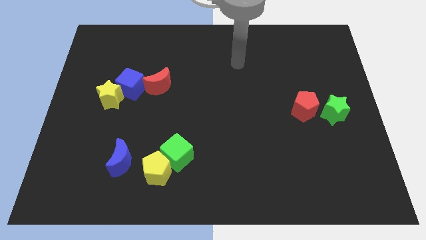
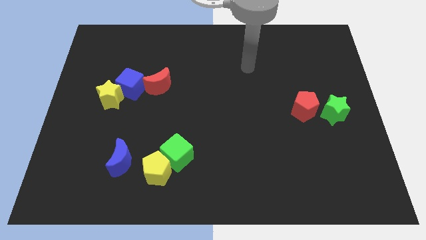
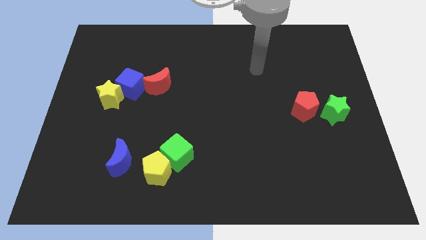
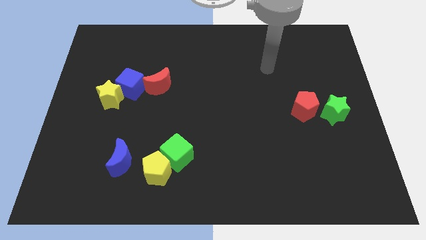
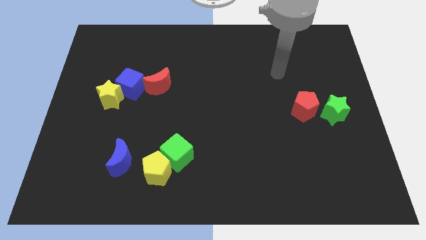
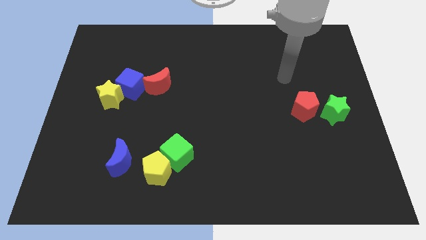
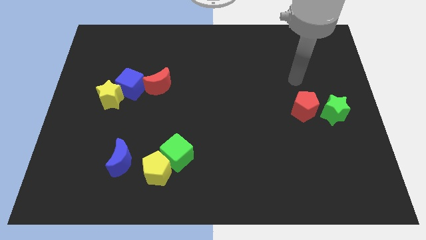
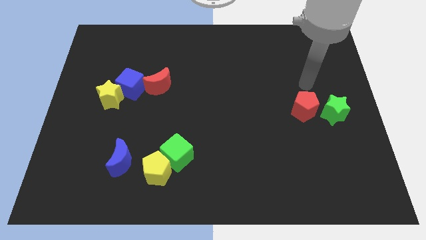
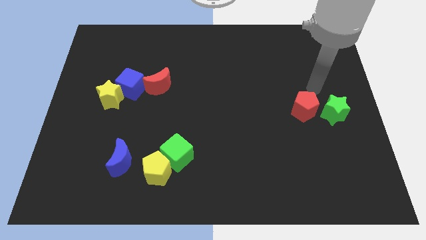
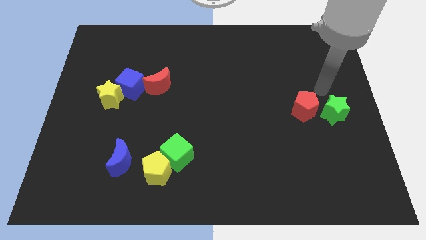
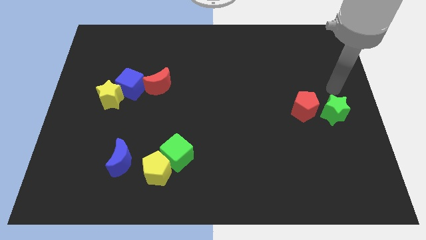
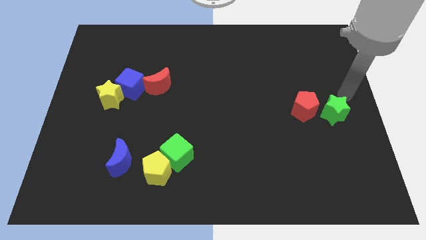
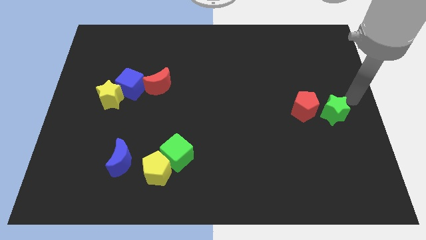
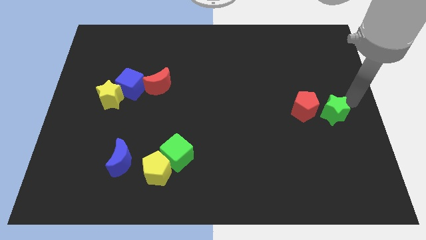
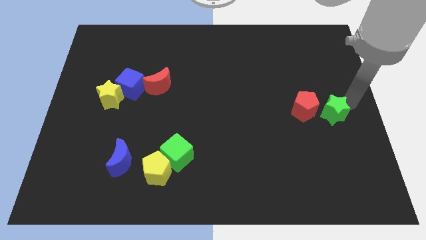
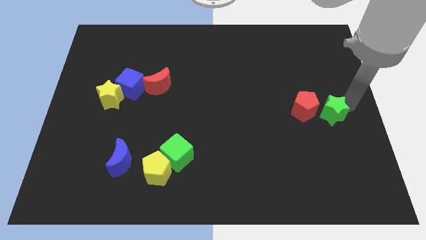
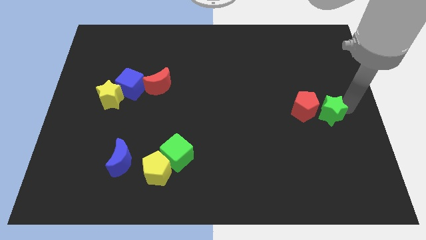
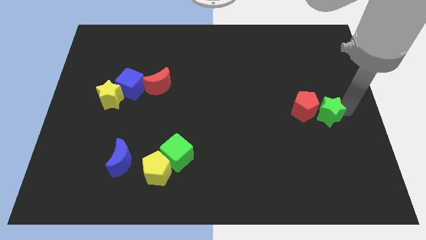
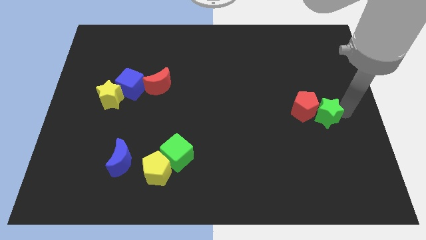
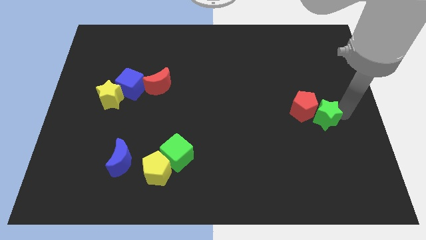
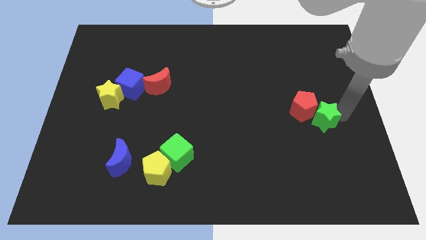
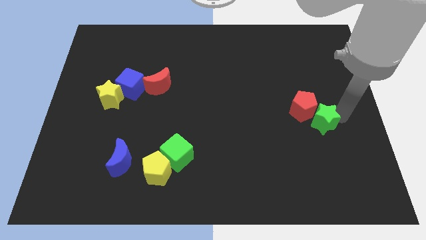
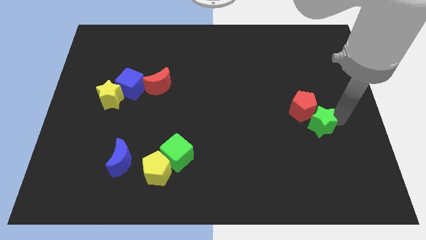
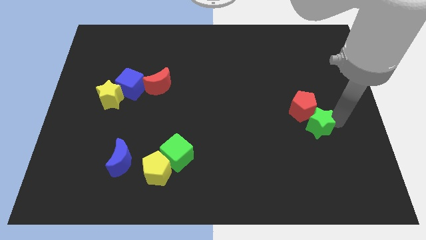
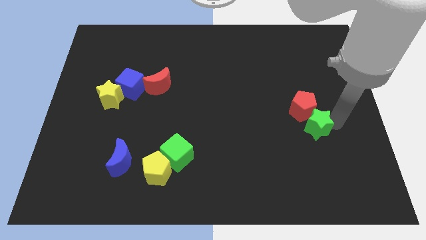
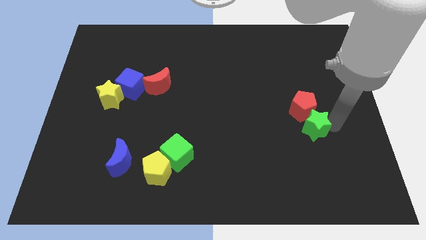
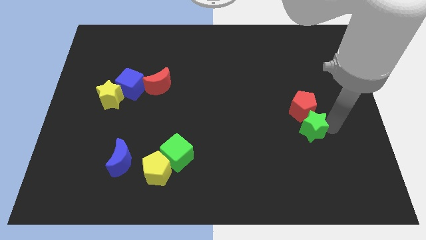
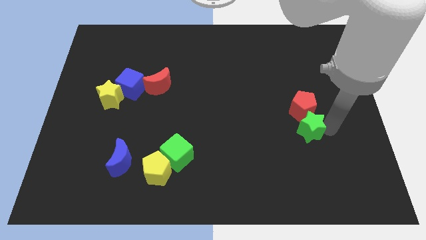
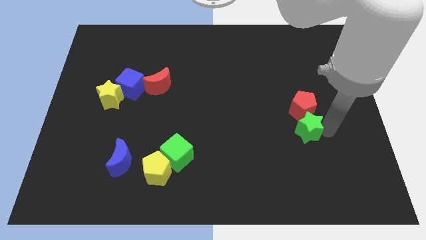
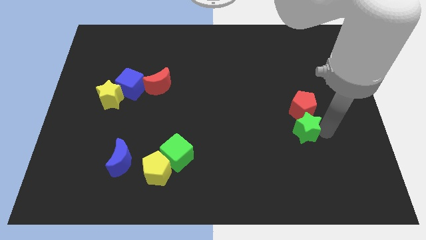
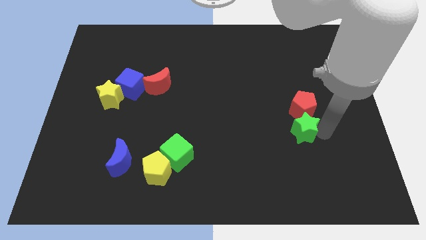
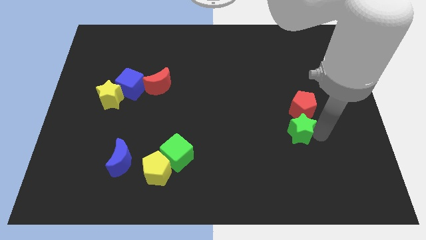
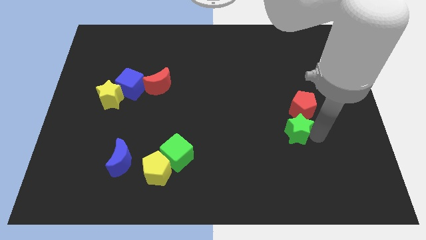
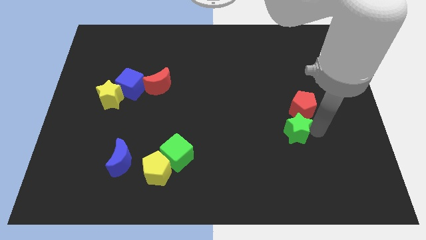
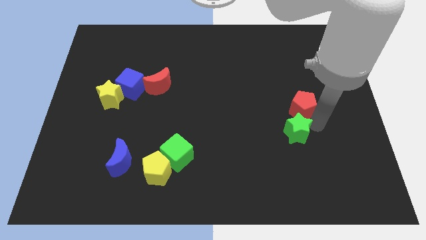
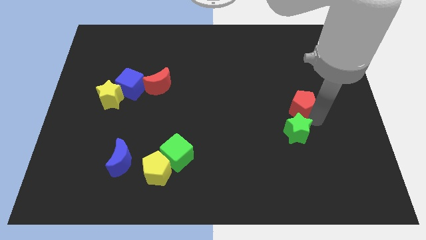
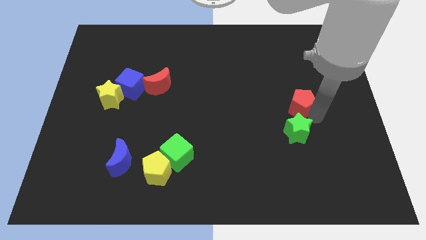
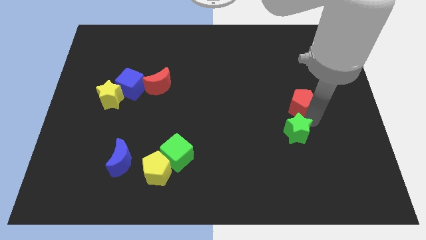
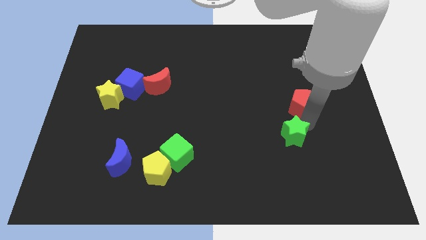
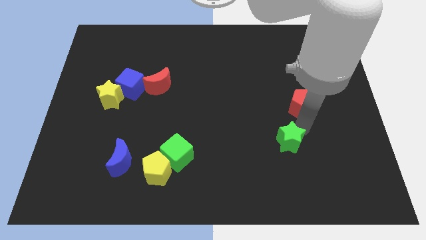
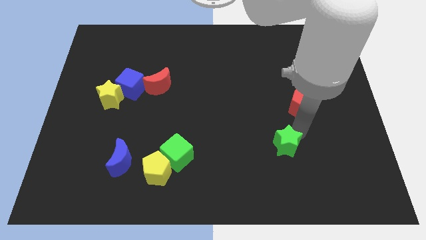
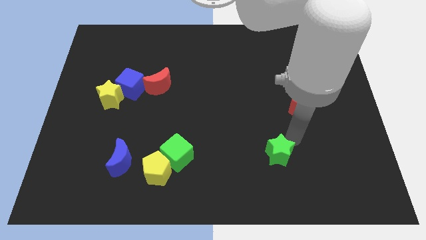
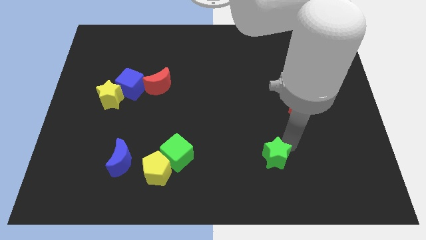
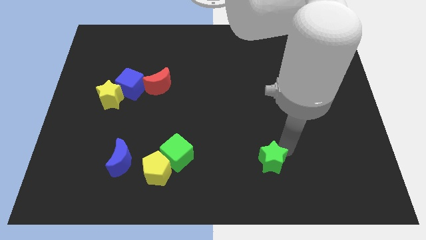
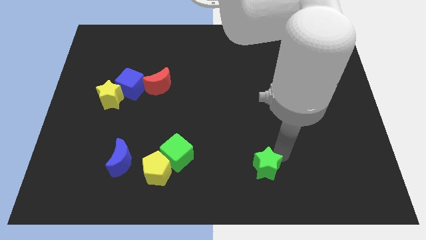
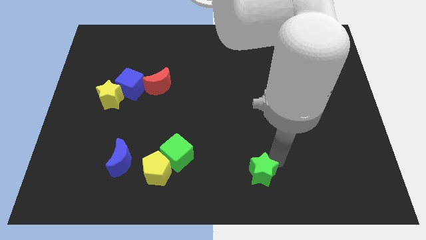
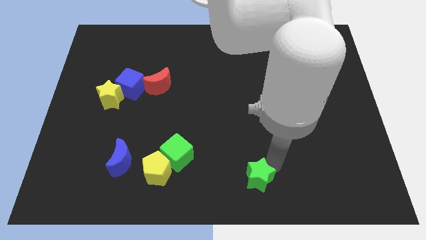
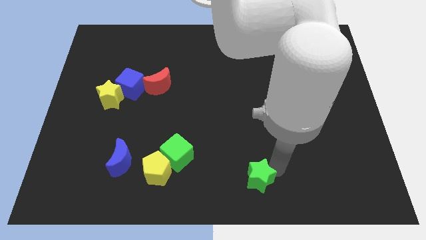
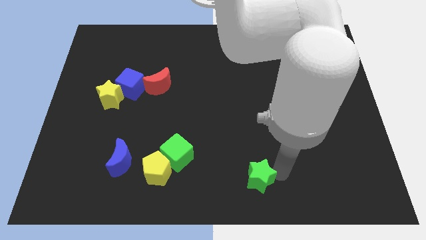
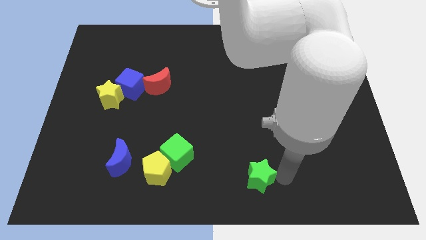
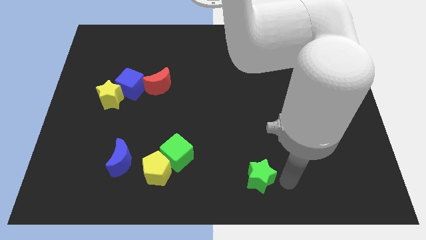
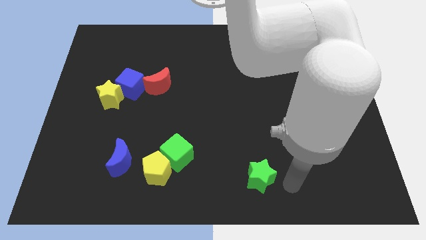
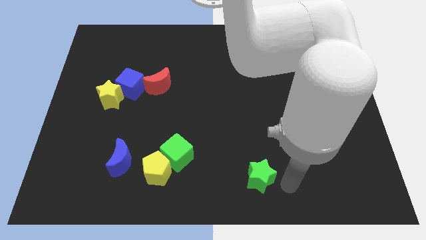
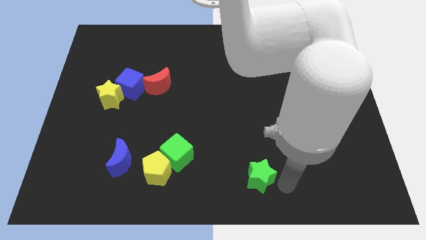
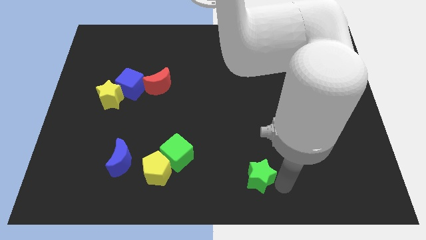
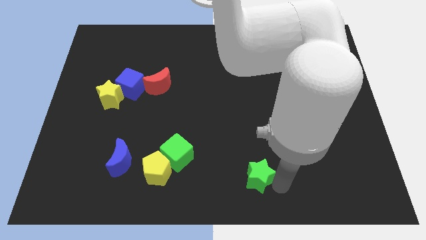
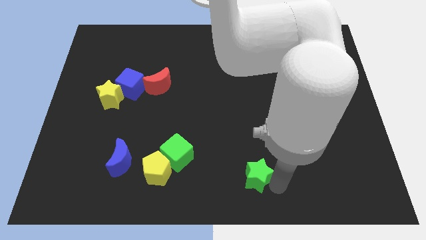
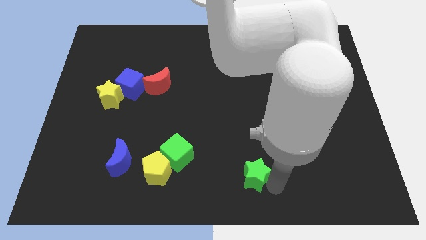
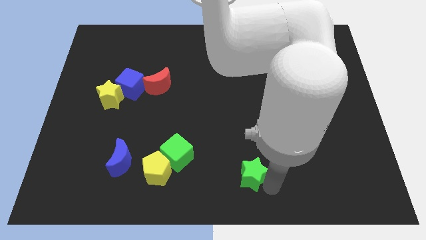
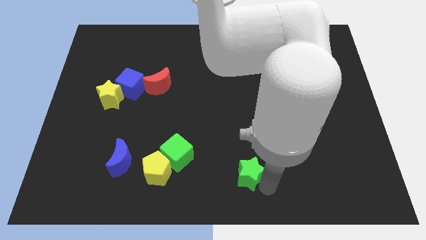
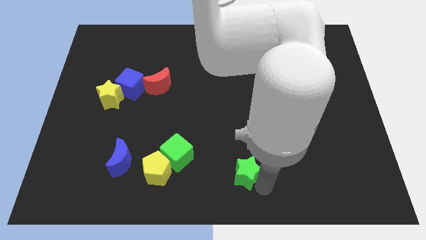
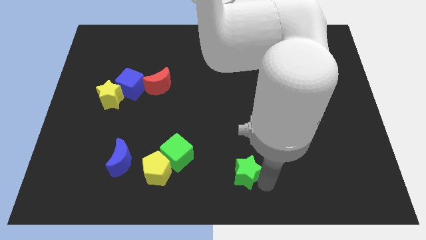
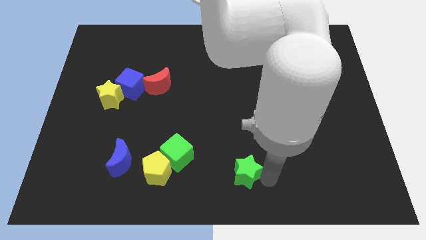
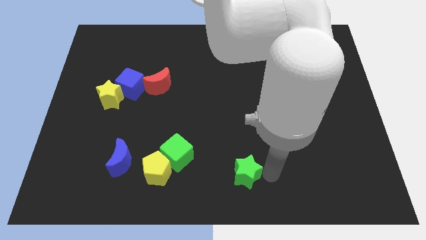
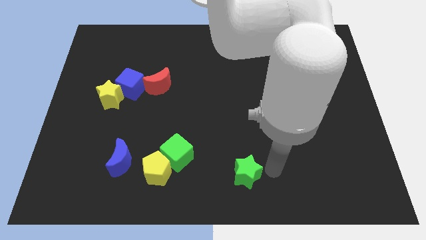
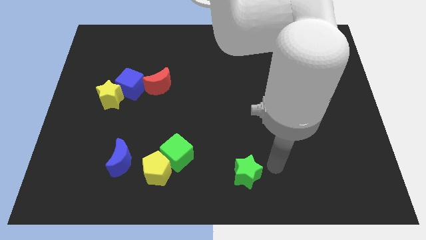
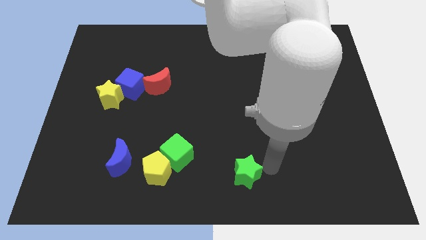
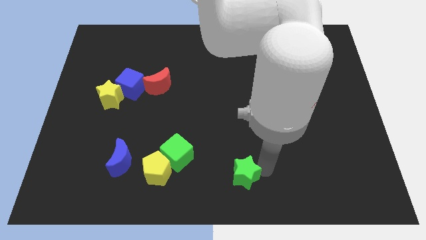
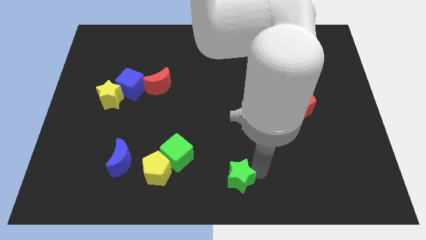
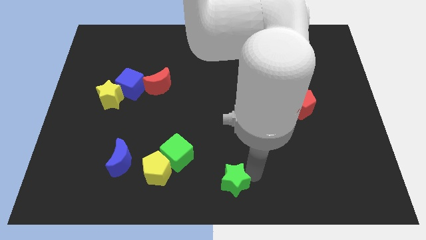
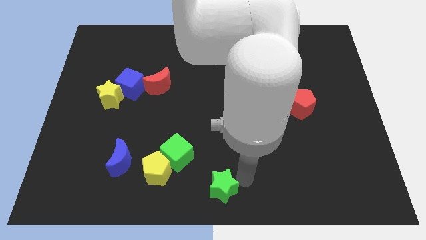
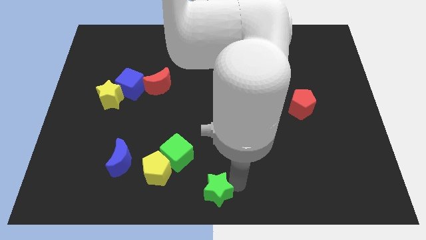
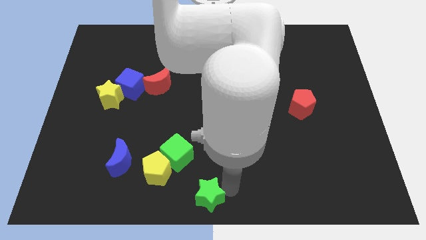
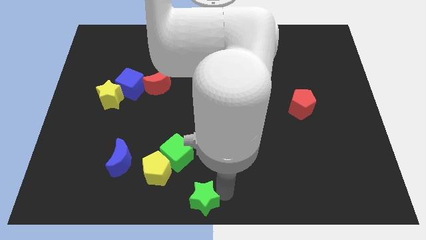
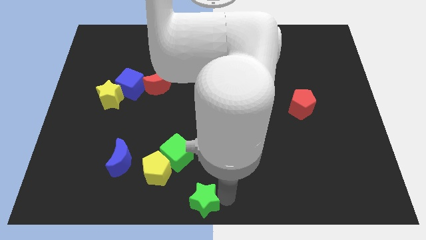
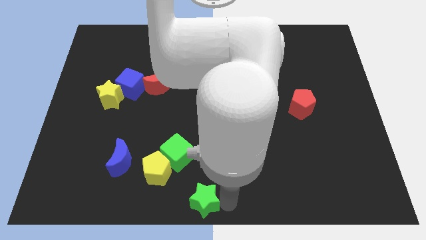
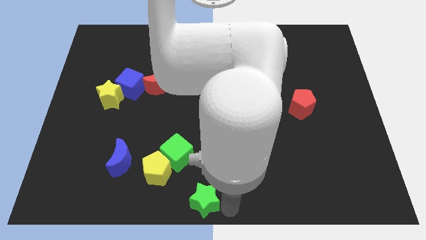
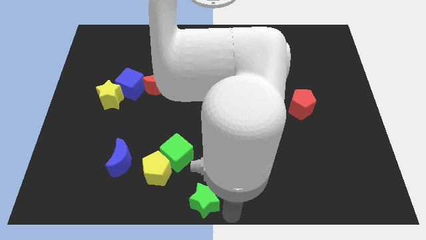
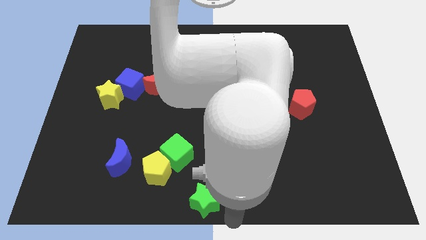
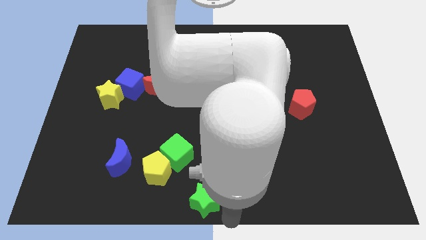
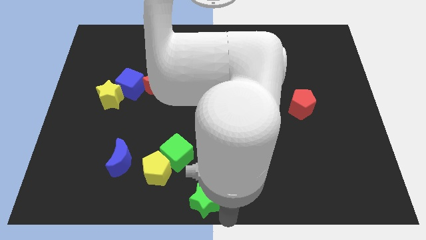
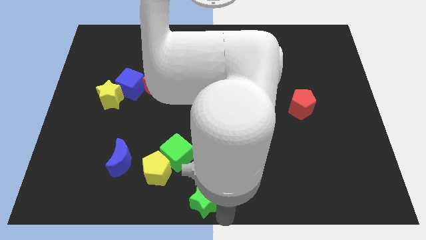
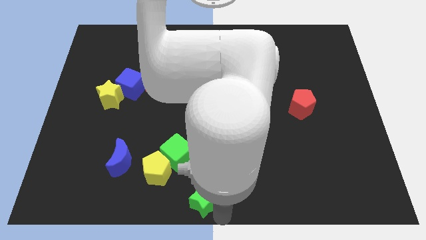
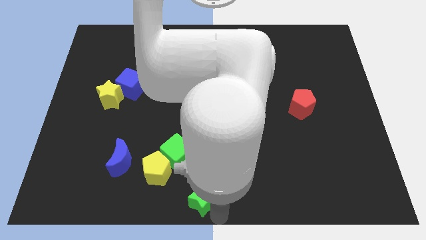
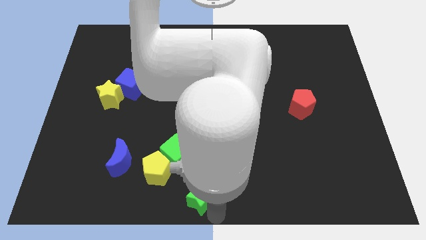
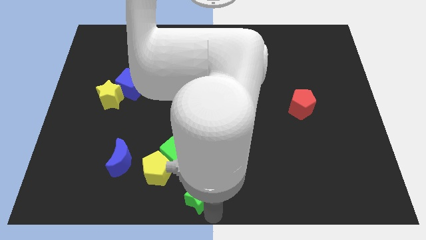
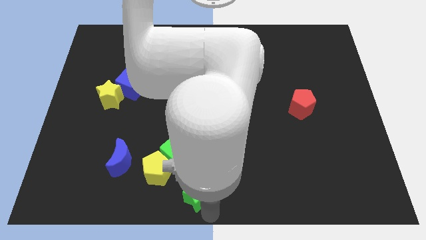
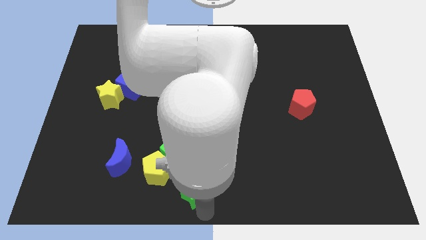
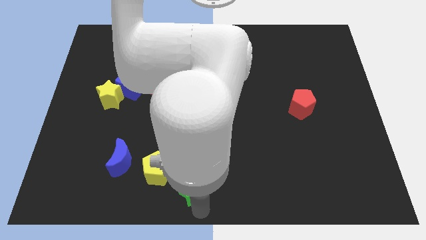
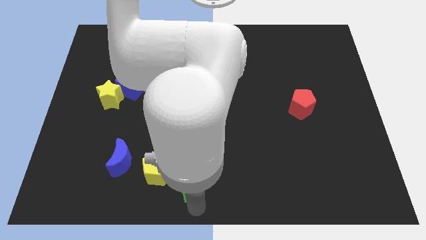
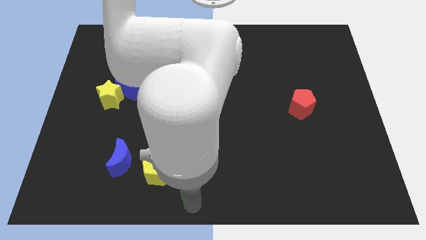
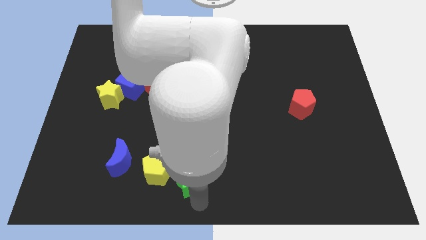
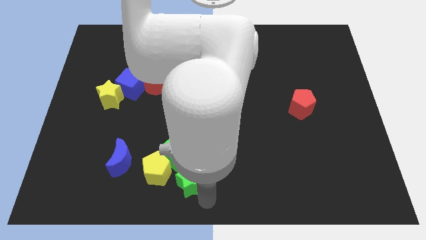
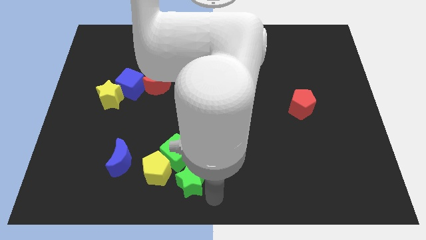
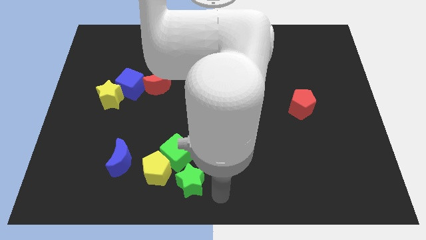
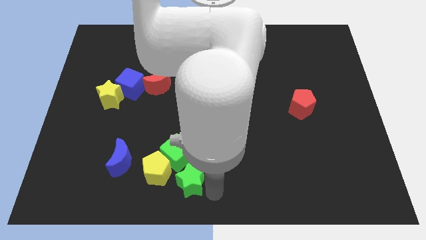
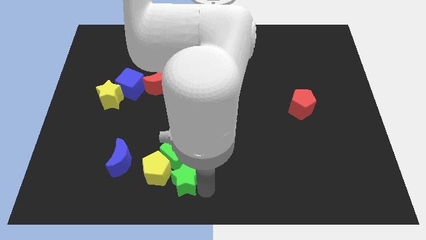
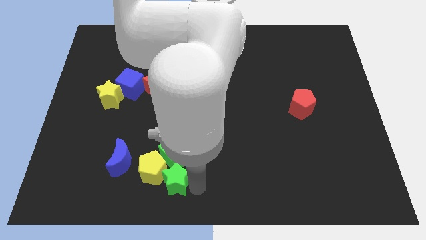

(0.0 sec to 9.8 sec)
slide the green star to the yellow pentagon
